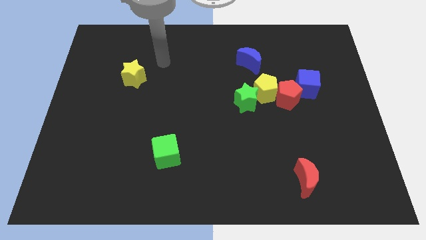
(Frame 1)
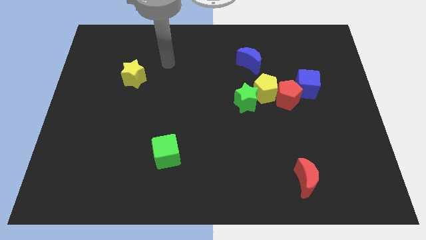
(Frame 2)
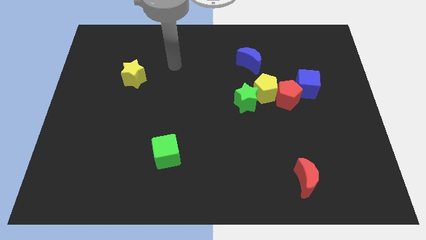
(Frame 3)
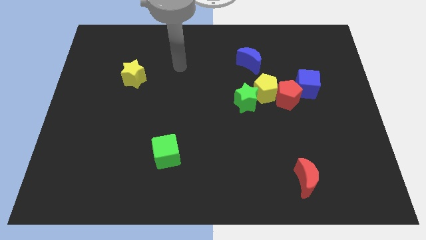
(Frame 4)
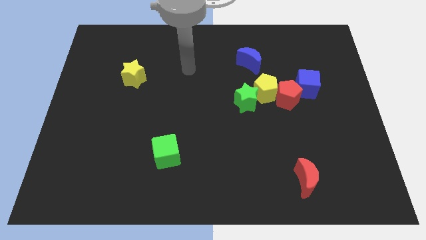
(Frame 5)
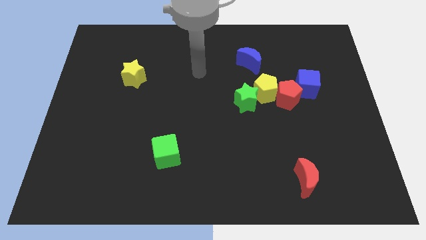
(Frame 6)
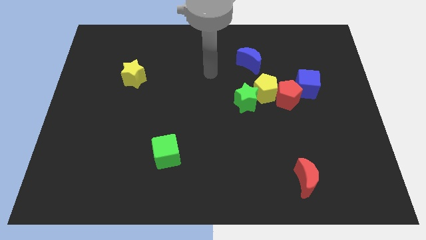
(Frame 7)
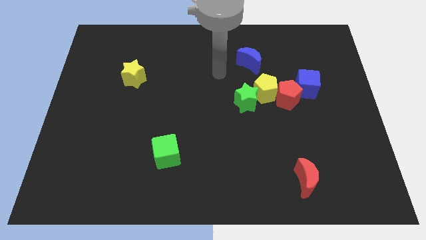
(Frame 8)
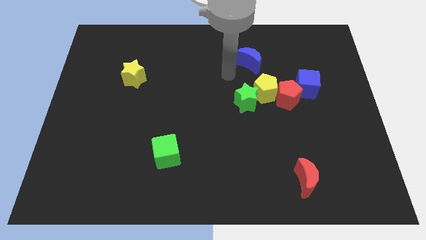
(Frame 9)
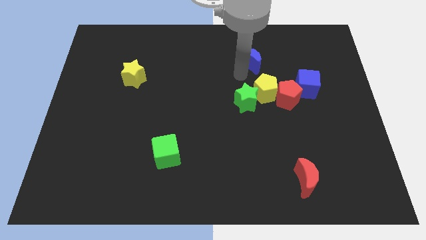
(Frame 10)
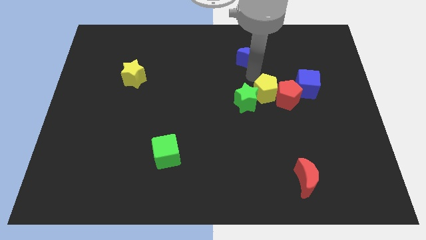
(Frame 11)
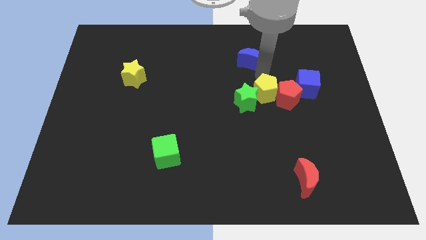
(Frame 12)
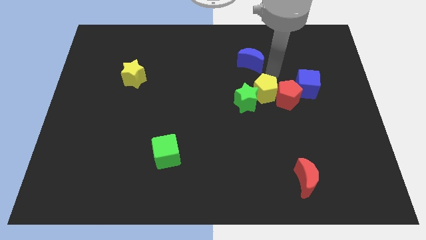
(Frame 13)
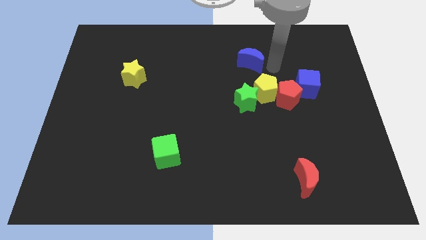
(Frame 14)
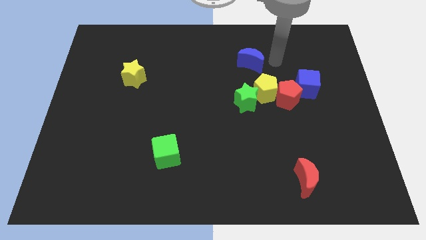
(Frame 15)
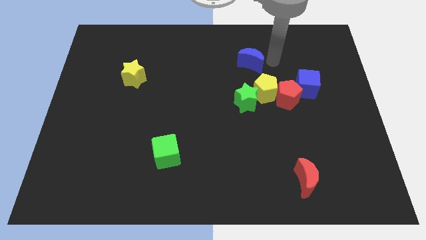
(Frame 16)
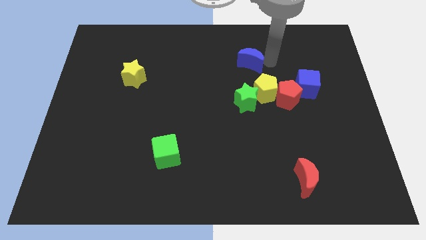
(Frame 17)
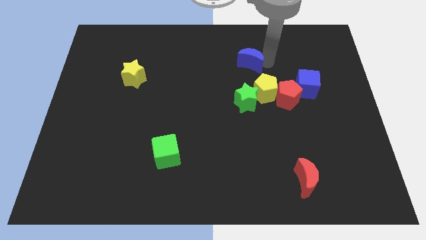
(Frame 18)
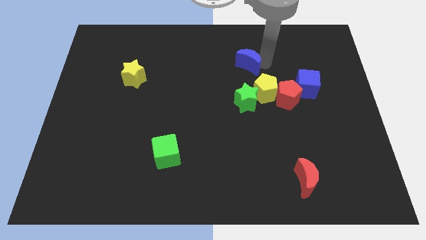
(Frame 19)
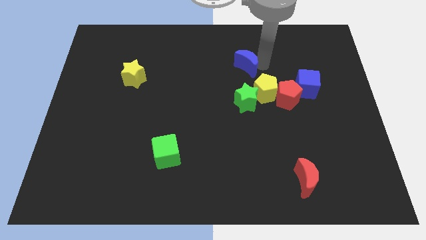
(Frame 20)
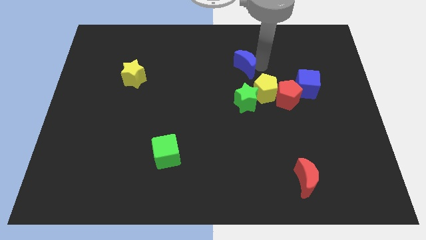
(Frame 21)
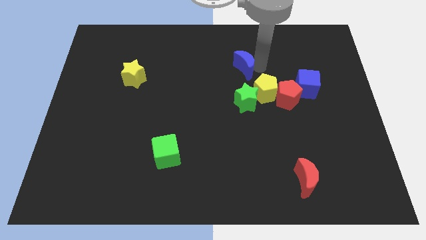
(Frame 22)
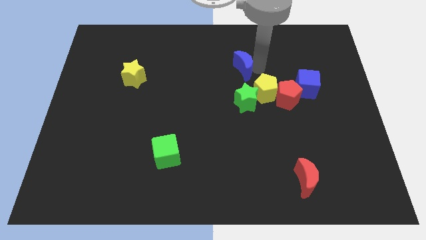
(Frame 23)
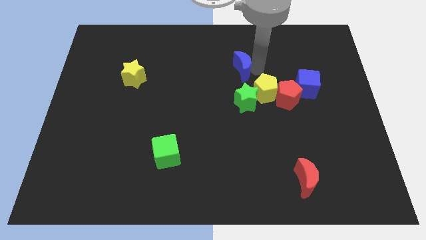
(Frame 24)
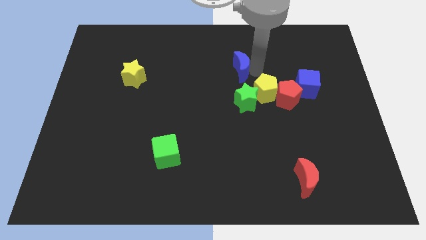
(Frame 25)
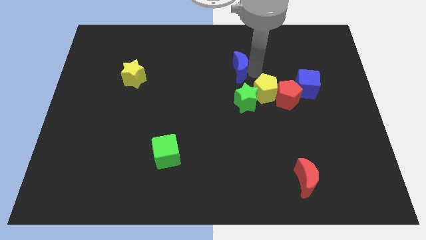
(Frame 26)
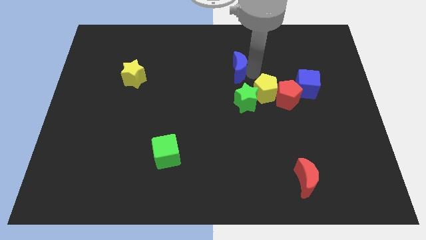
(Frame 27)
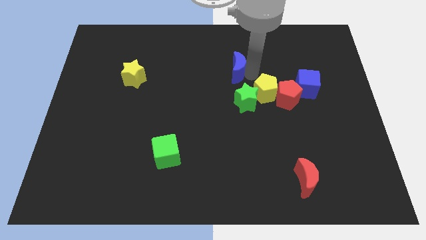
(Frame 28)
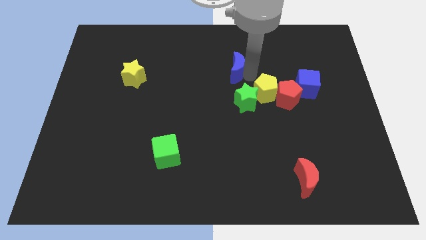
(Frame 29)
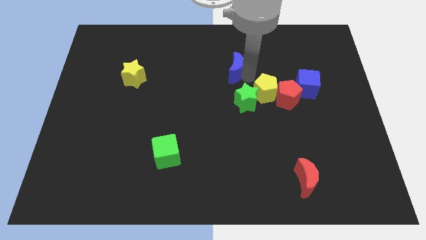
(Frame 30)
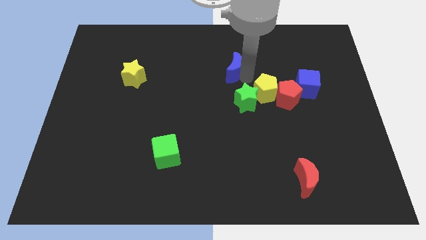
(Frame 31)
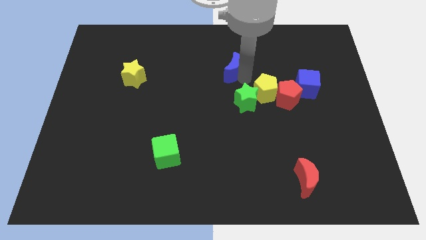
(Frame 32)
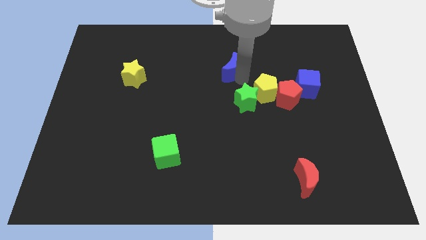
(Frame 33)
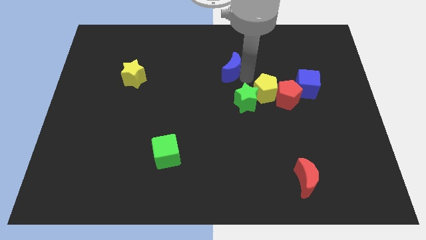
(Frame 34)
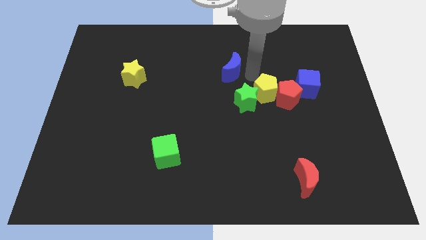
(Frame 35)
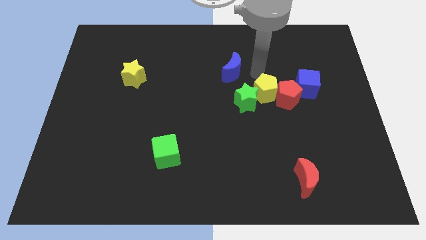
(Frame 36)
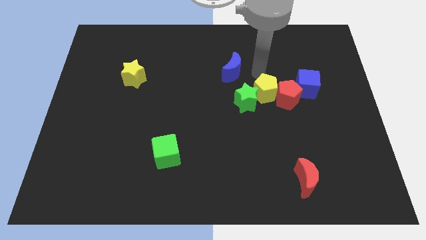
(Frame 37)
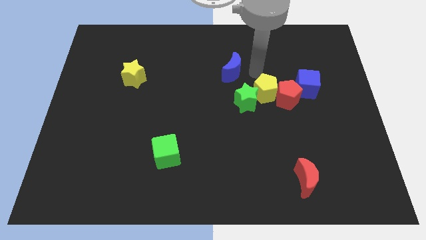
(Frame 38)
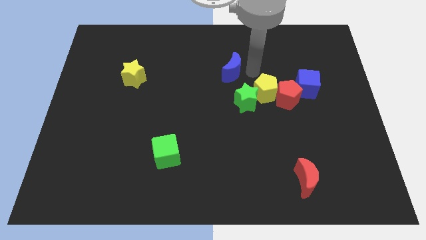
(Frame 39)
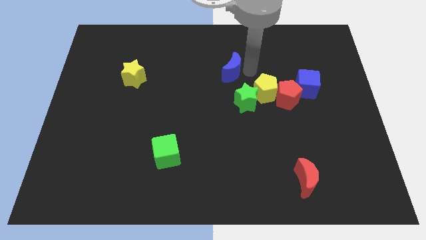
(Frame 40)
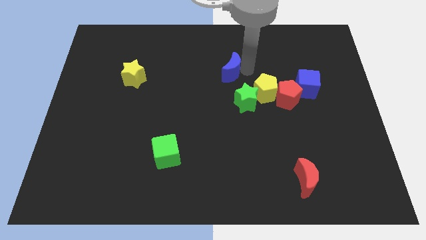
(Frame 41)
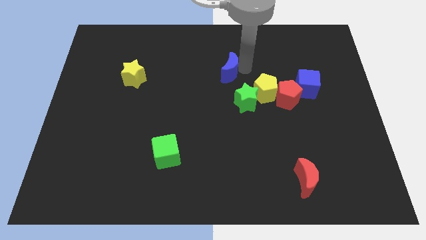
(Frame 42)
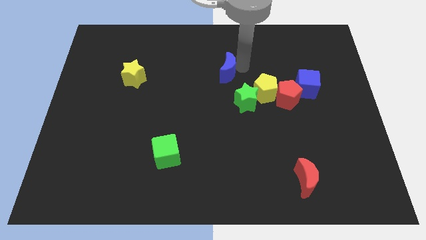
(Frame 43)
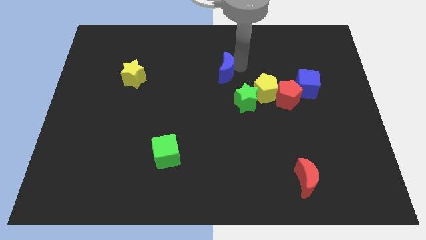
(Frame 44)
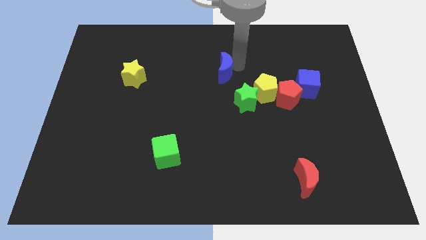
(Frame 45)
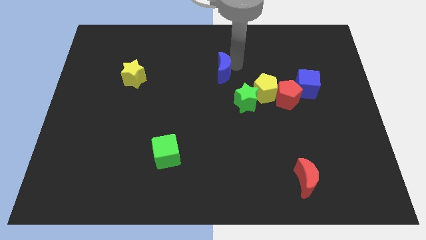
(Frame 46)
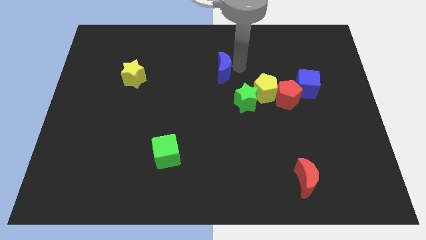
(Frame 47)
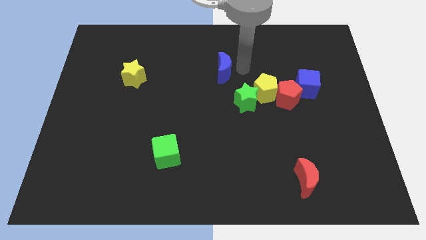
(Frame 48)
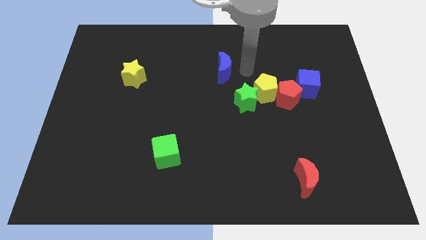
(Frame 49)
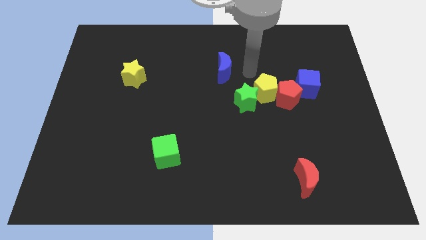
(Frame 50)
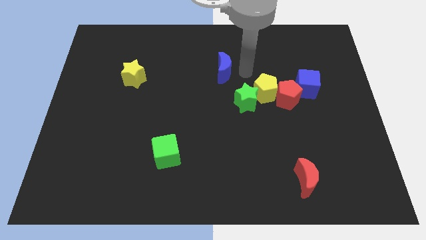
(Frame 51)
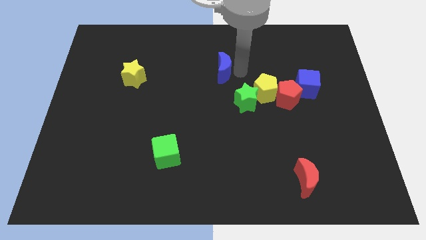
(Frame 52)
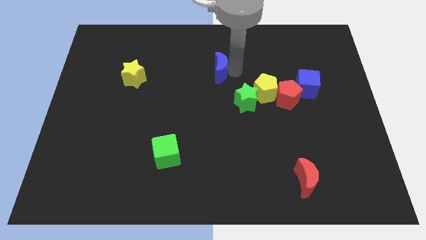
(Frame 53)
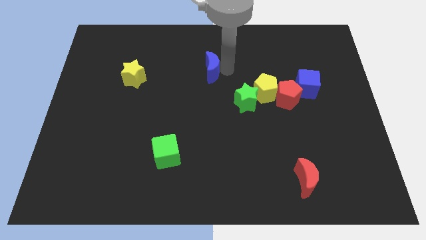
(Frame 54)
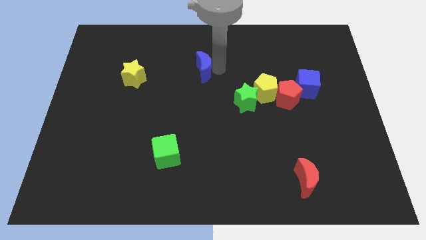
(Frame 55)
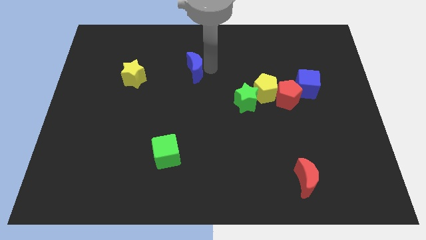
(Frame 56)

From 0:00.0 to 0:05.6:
move the blue moon just right of the yellow star

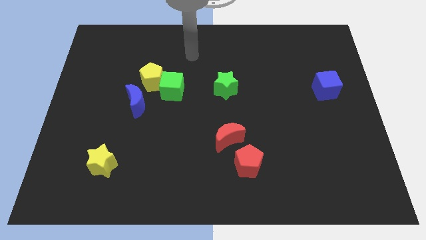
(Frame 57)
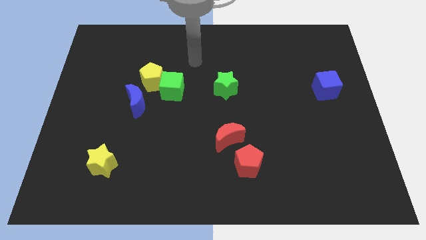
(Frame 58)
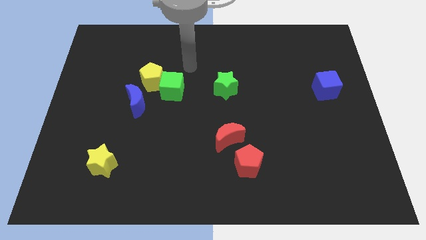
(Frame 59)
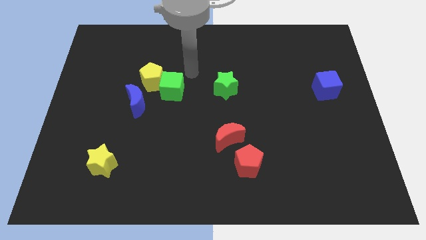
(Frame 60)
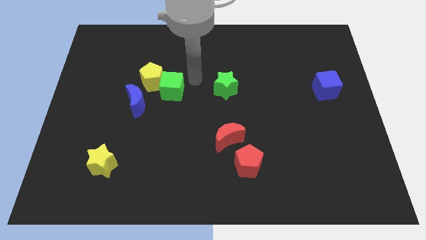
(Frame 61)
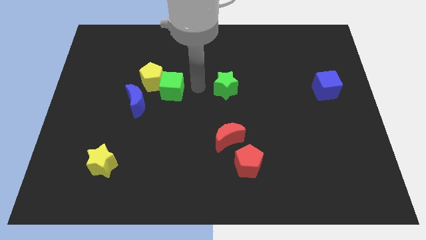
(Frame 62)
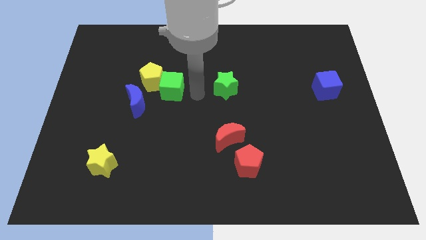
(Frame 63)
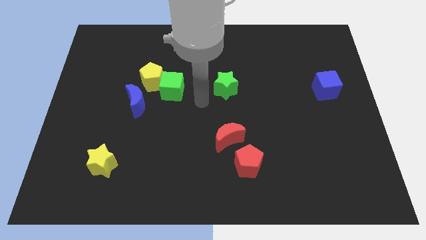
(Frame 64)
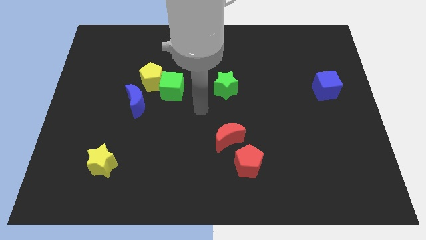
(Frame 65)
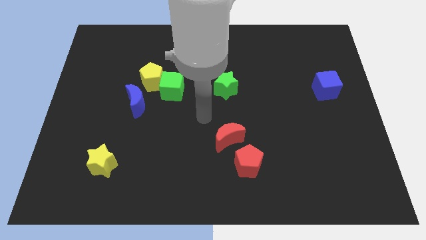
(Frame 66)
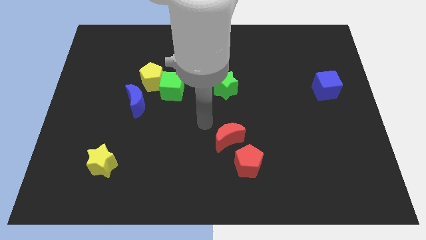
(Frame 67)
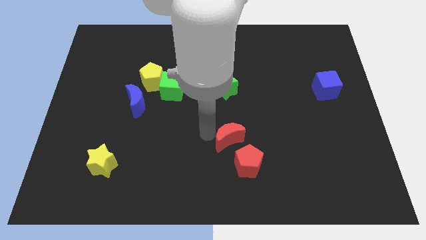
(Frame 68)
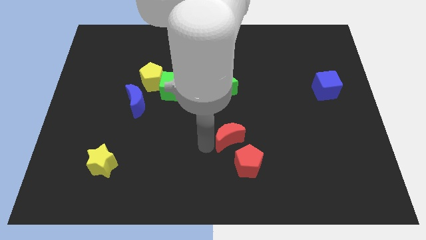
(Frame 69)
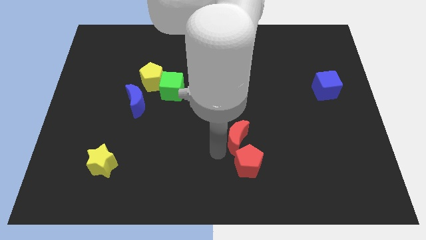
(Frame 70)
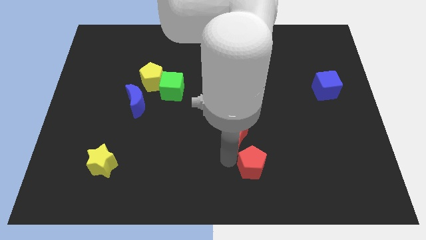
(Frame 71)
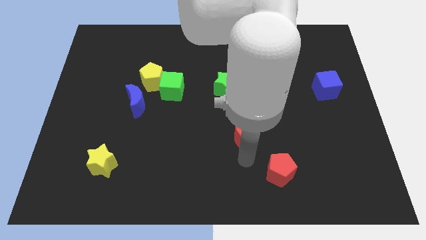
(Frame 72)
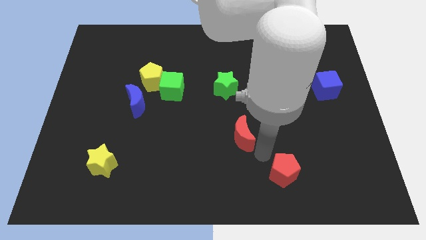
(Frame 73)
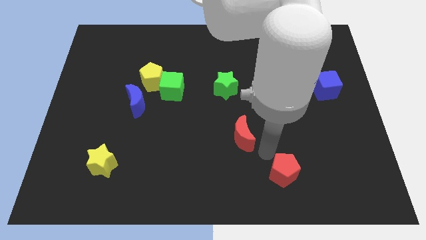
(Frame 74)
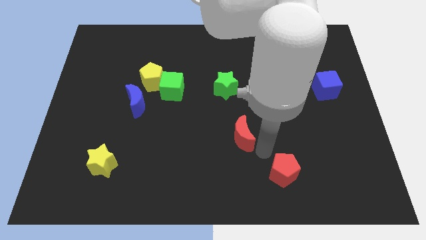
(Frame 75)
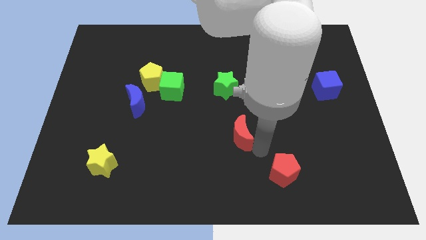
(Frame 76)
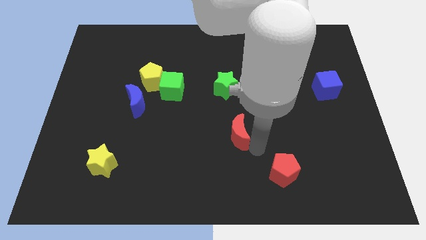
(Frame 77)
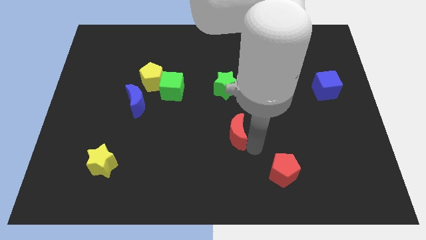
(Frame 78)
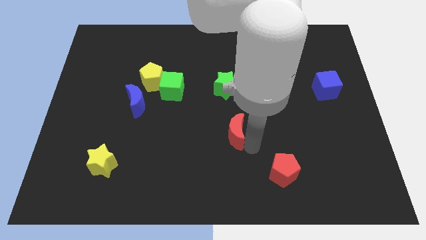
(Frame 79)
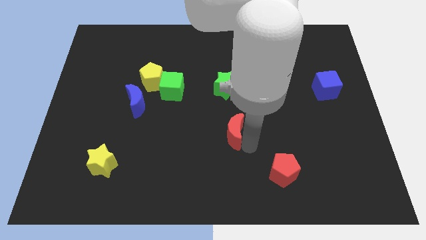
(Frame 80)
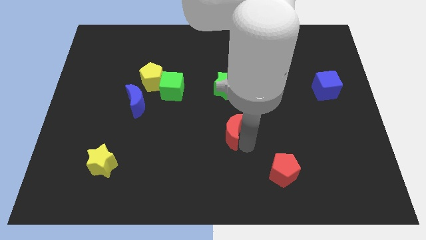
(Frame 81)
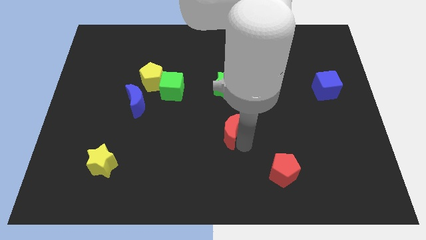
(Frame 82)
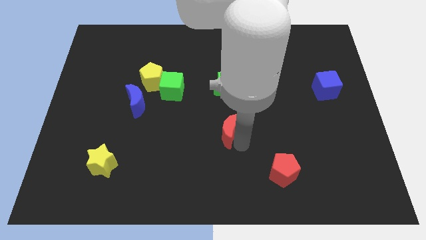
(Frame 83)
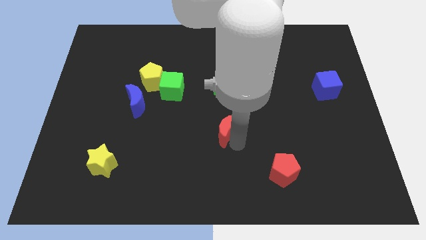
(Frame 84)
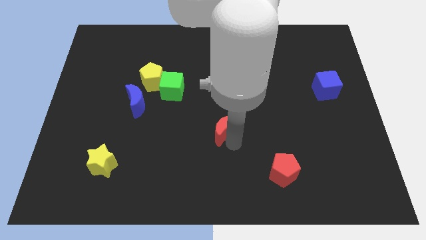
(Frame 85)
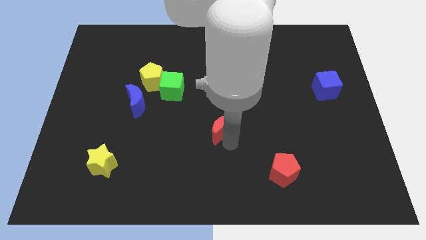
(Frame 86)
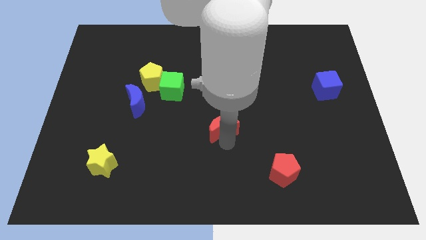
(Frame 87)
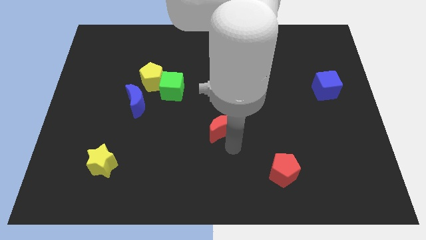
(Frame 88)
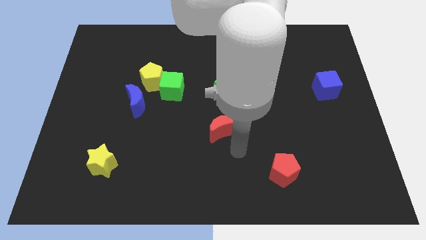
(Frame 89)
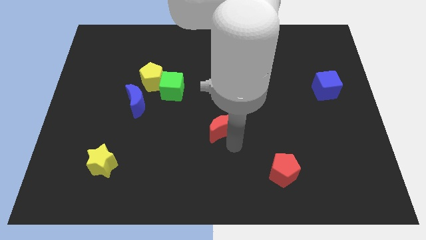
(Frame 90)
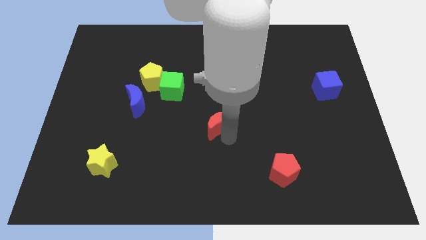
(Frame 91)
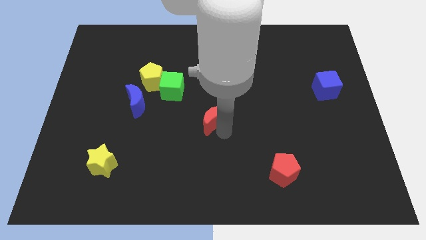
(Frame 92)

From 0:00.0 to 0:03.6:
slide the red moon diagonally down and to the left of the green star
